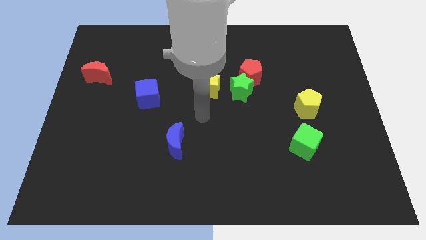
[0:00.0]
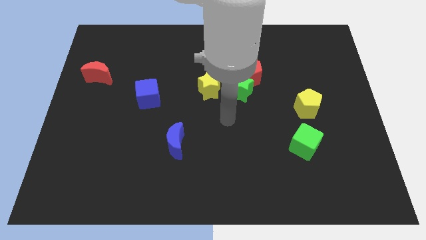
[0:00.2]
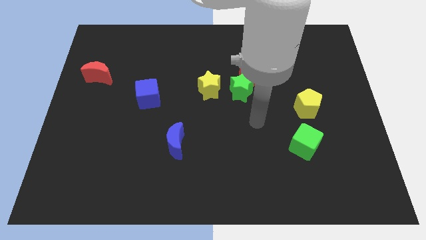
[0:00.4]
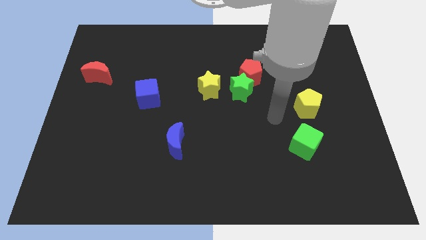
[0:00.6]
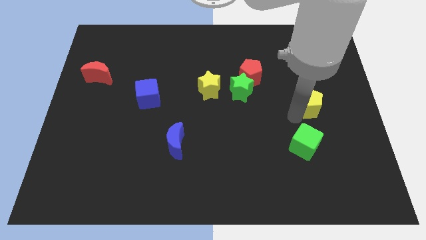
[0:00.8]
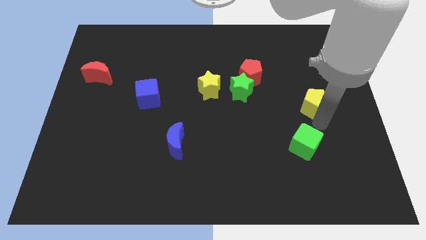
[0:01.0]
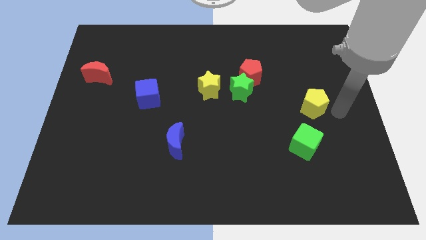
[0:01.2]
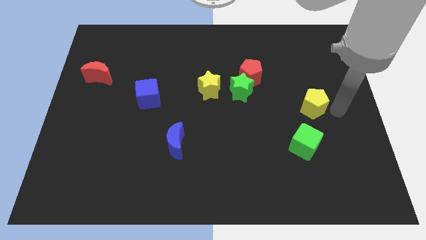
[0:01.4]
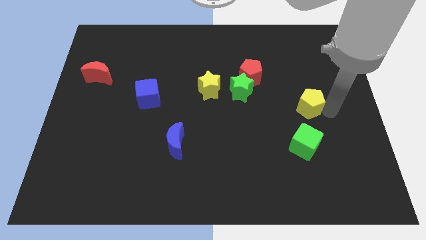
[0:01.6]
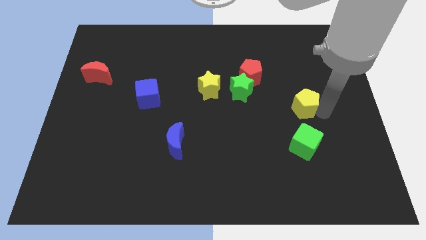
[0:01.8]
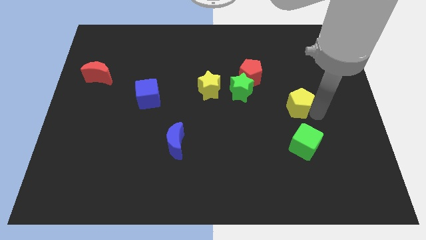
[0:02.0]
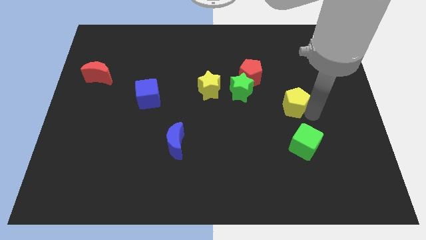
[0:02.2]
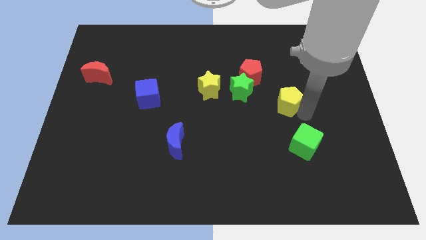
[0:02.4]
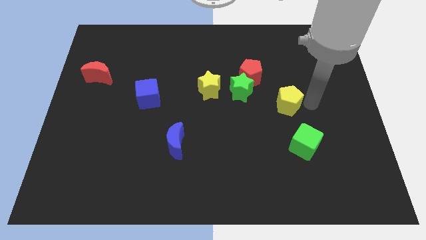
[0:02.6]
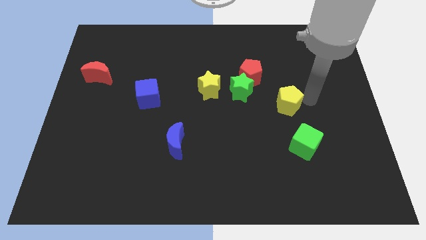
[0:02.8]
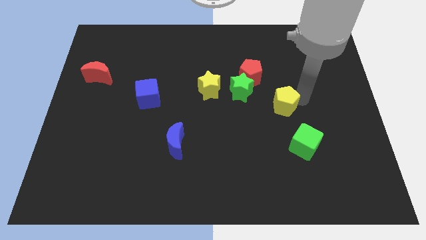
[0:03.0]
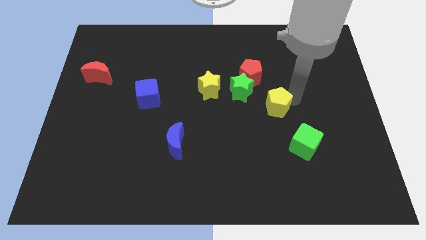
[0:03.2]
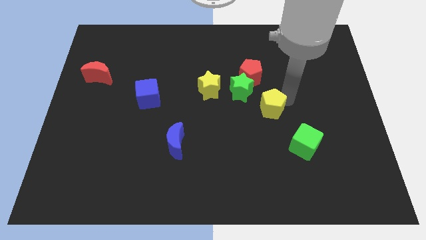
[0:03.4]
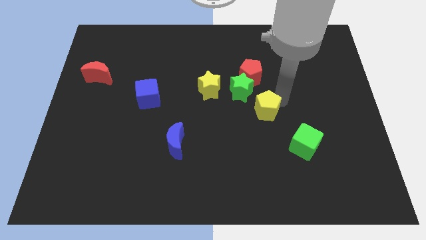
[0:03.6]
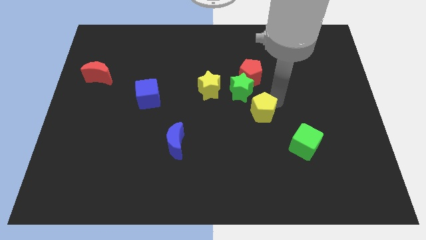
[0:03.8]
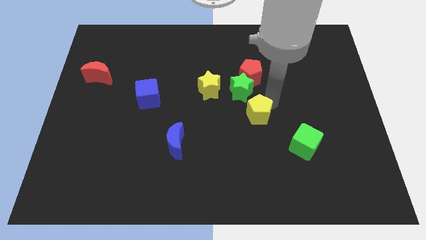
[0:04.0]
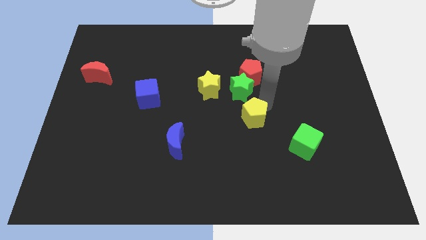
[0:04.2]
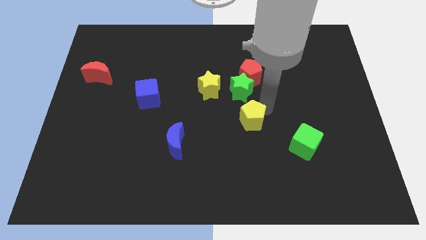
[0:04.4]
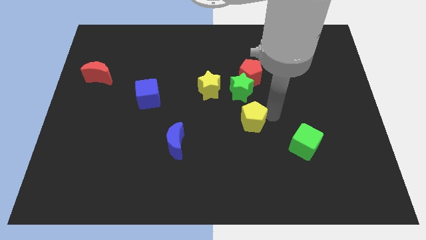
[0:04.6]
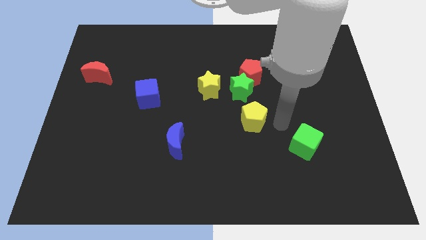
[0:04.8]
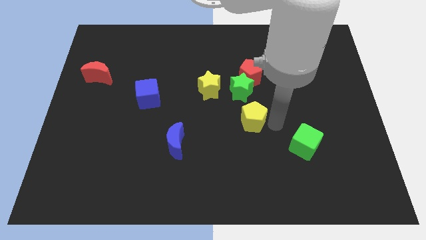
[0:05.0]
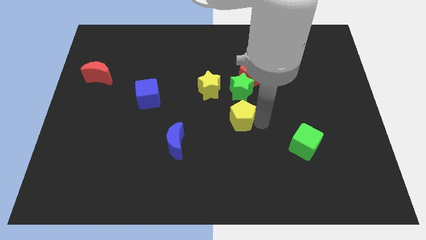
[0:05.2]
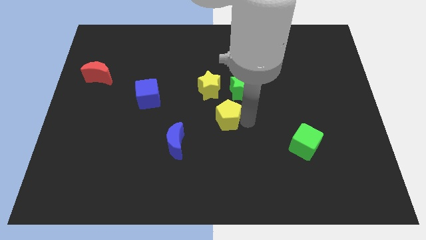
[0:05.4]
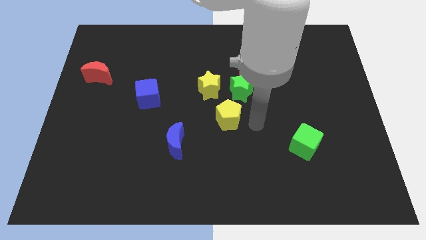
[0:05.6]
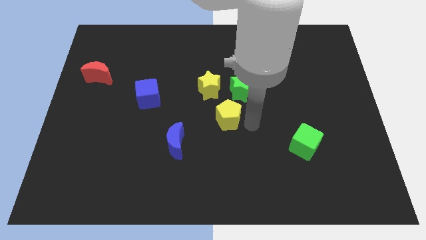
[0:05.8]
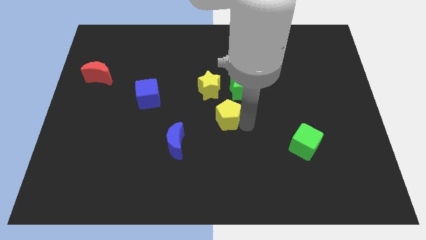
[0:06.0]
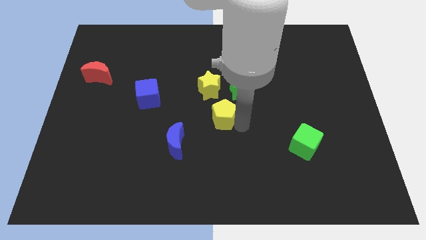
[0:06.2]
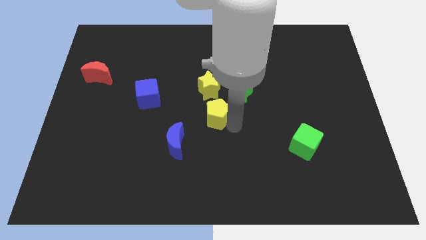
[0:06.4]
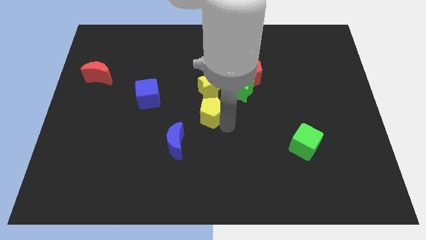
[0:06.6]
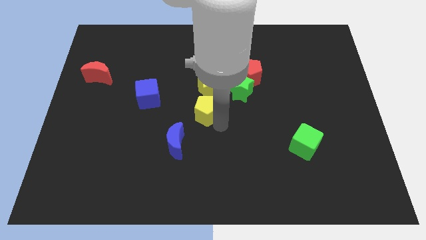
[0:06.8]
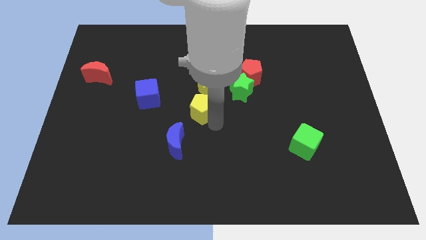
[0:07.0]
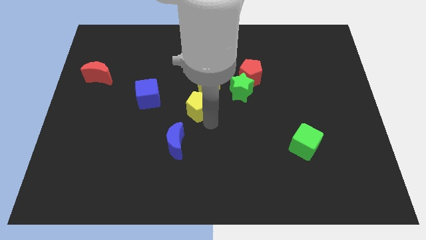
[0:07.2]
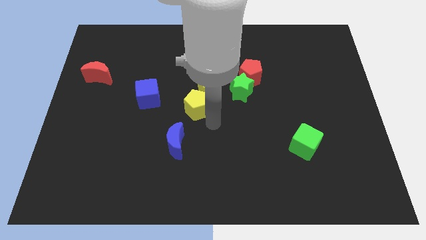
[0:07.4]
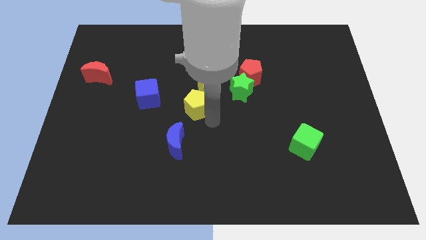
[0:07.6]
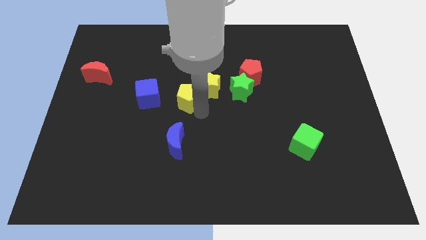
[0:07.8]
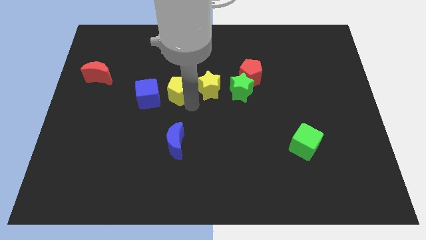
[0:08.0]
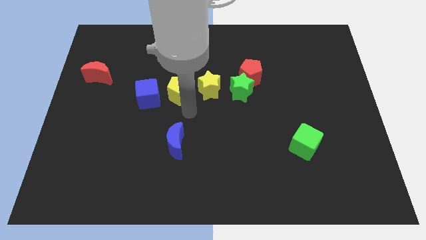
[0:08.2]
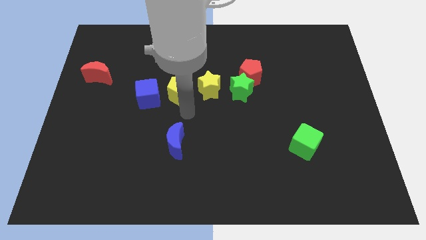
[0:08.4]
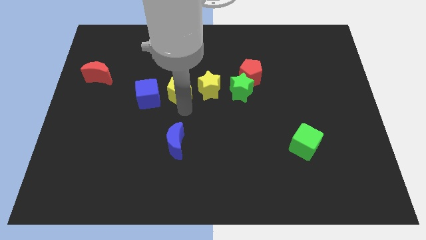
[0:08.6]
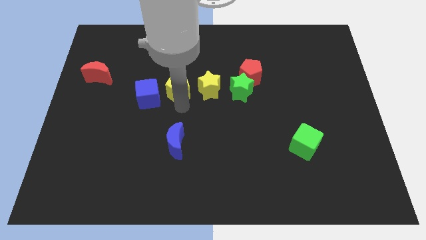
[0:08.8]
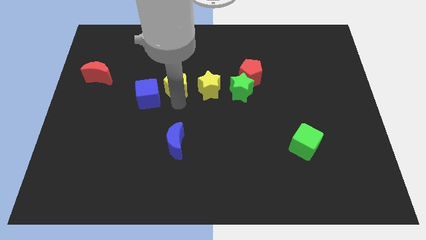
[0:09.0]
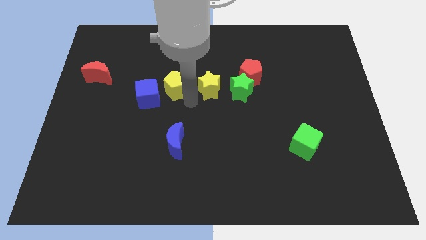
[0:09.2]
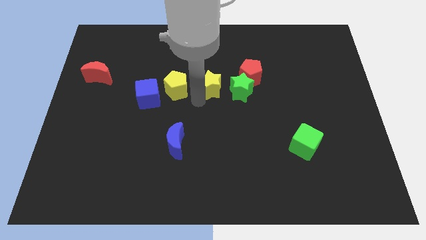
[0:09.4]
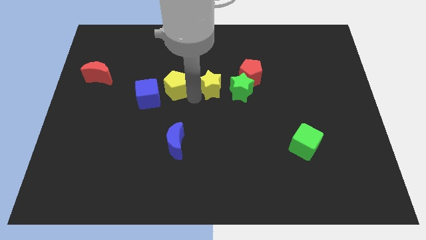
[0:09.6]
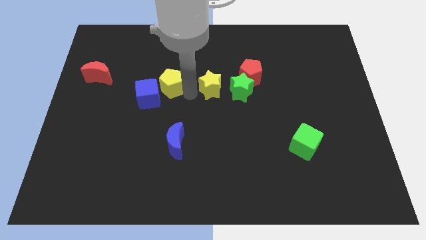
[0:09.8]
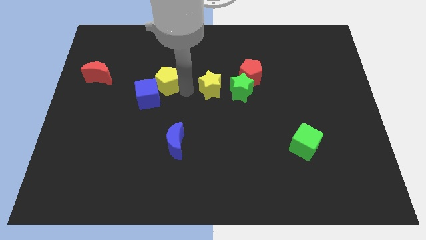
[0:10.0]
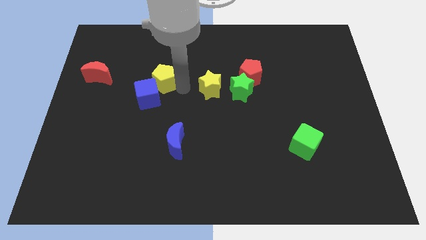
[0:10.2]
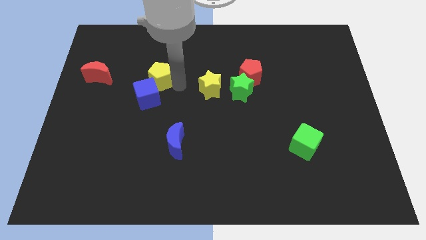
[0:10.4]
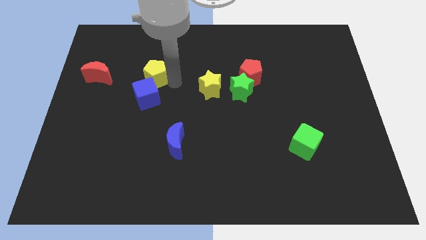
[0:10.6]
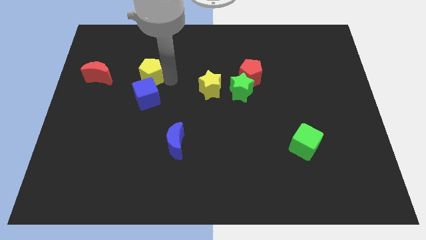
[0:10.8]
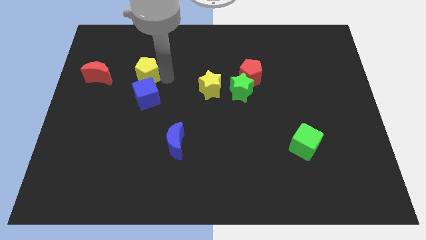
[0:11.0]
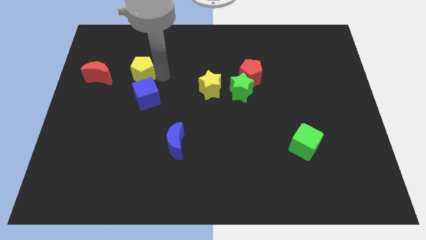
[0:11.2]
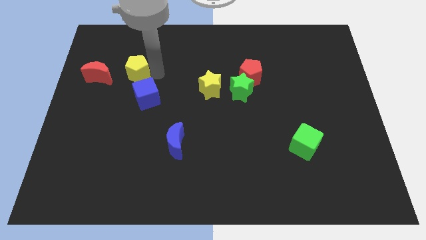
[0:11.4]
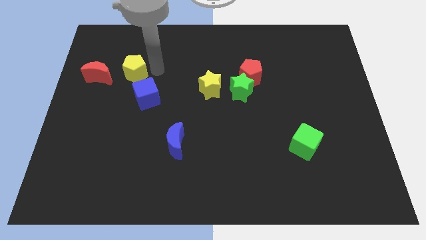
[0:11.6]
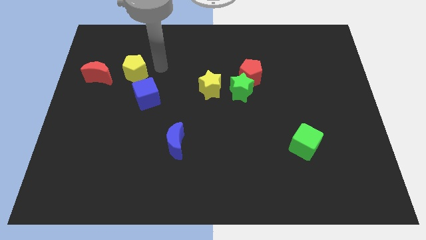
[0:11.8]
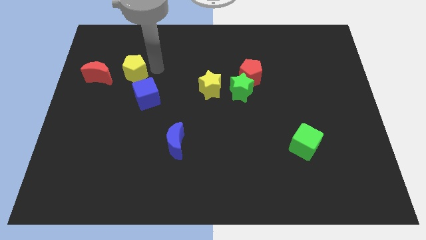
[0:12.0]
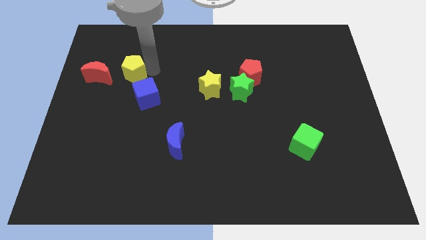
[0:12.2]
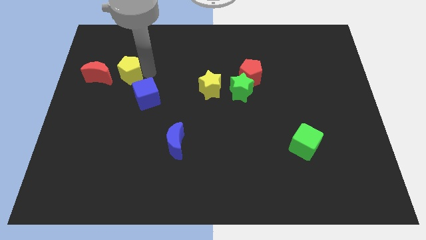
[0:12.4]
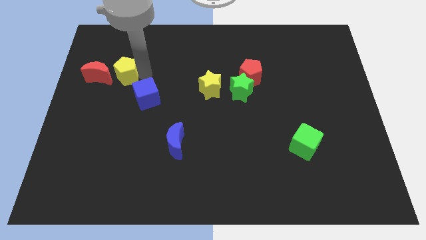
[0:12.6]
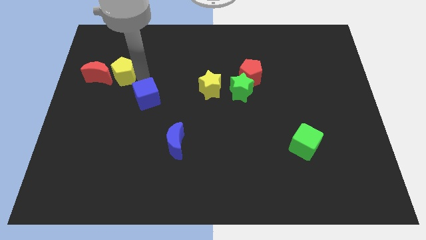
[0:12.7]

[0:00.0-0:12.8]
push the yellow pentagon next to the red moon
